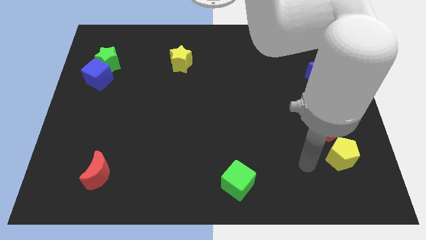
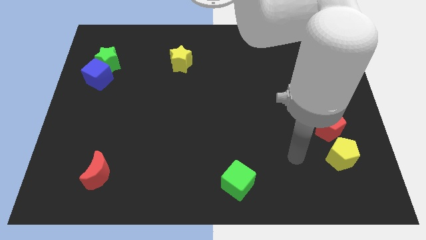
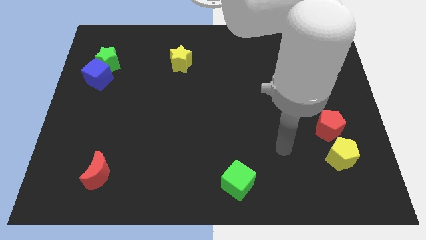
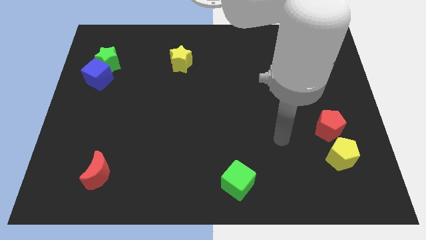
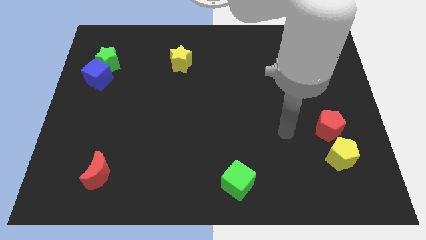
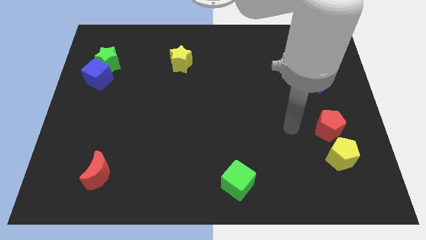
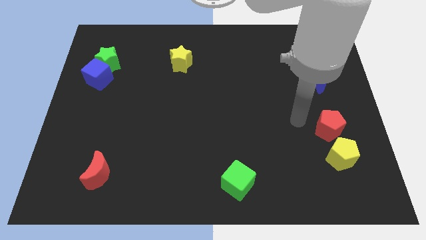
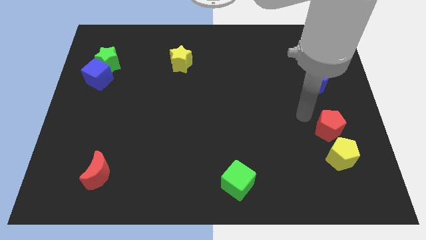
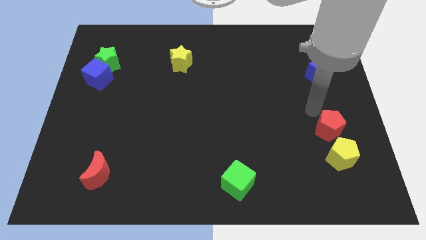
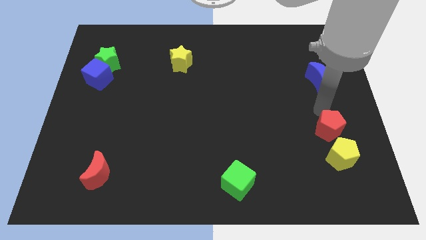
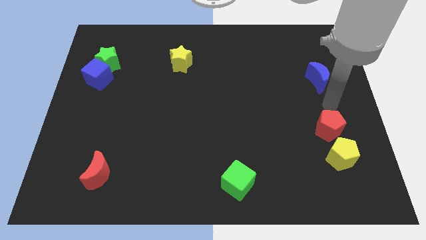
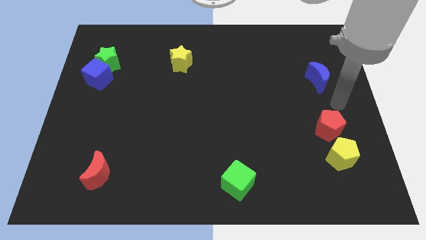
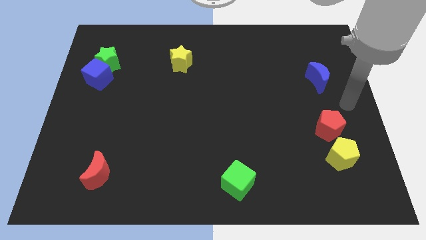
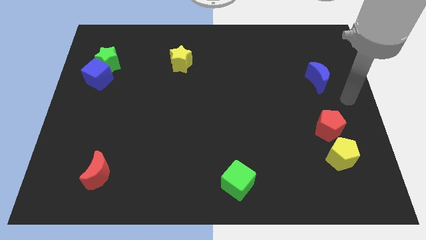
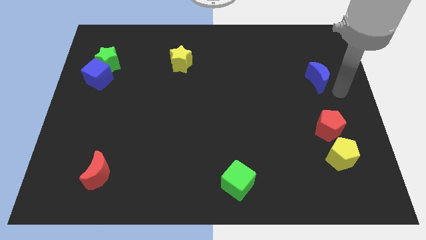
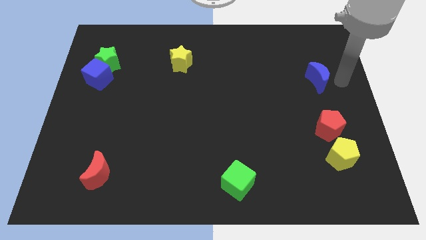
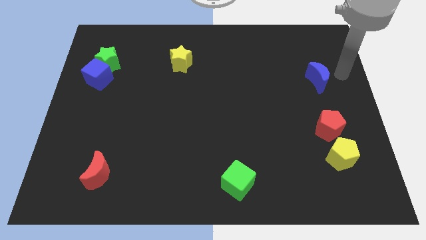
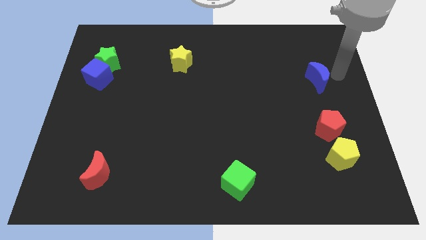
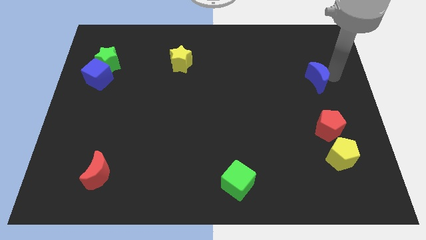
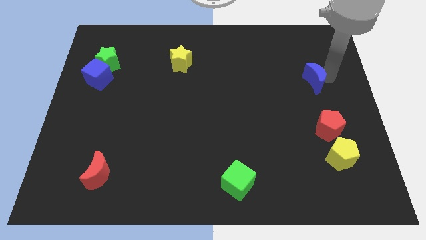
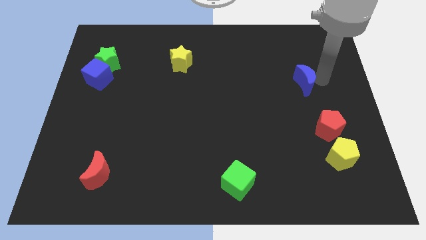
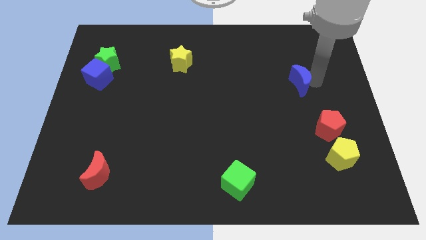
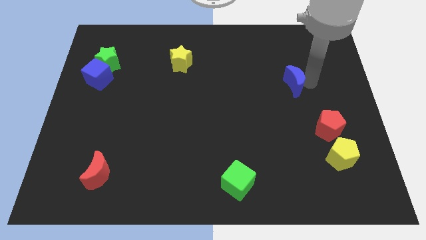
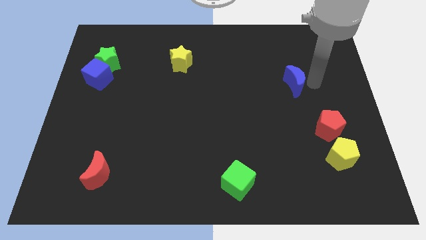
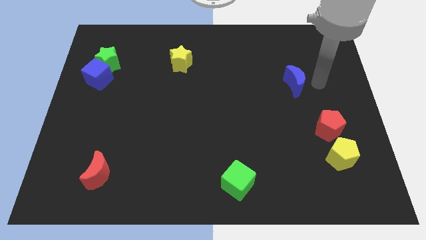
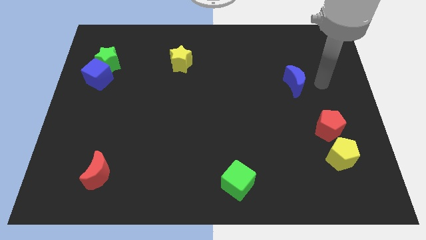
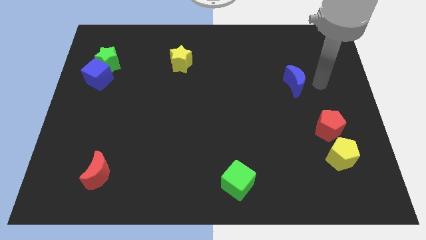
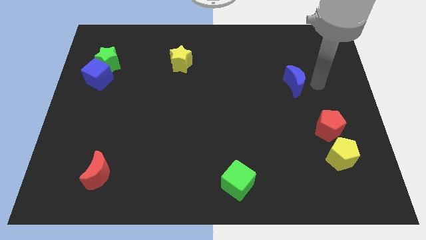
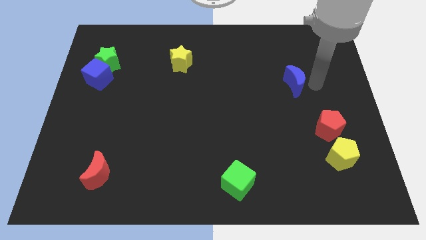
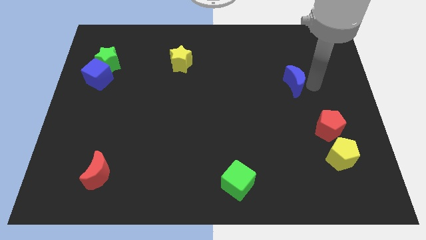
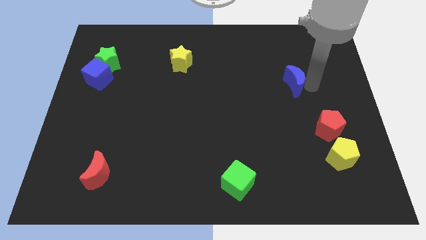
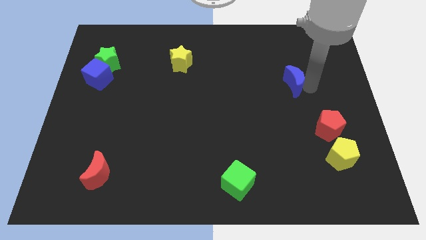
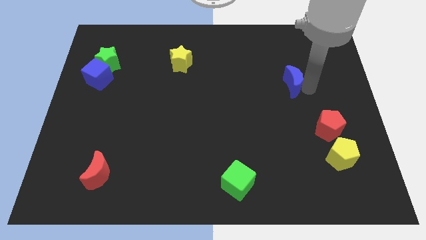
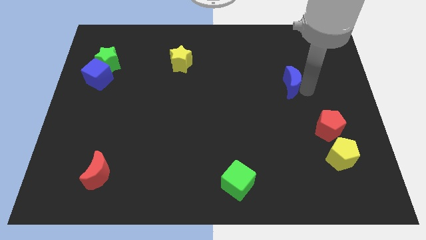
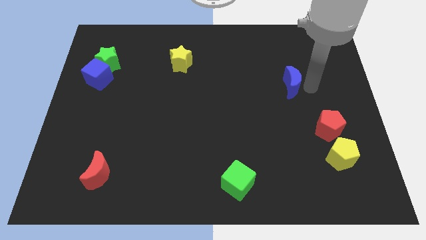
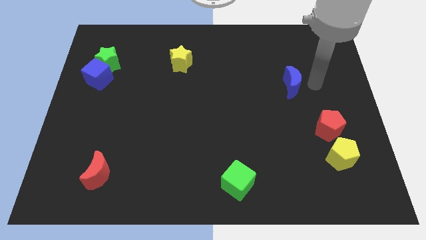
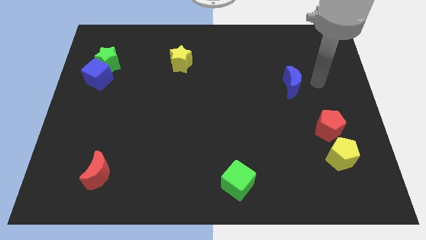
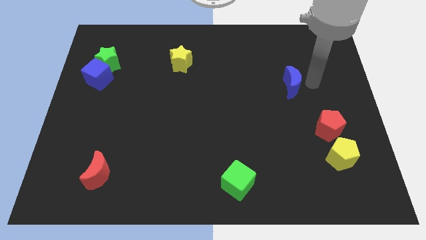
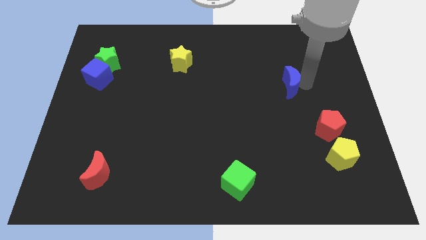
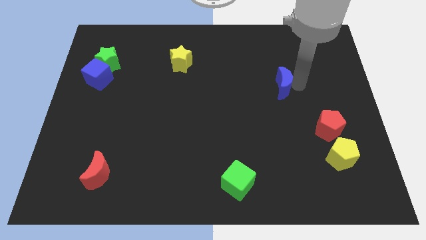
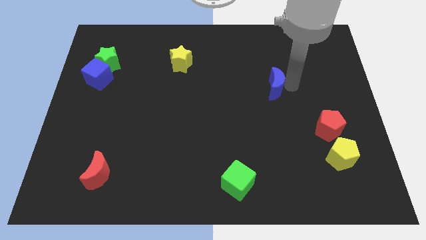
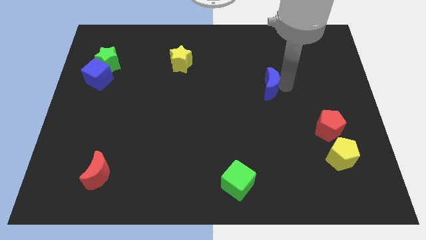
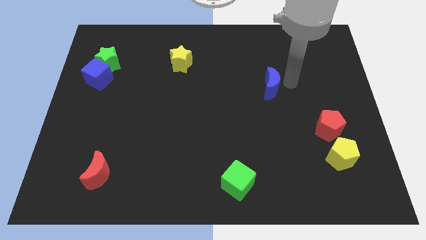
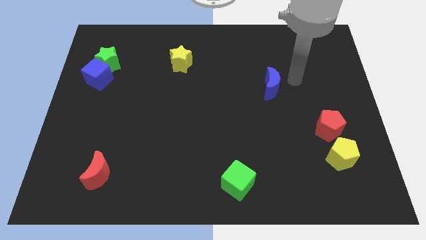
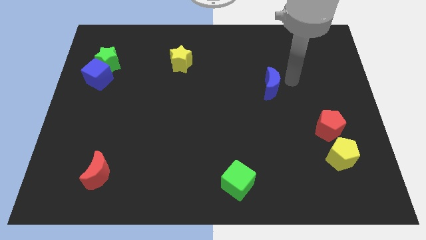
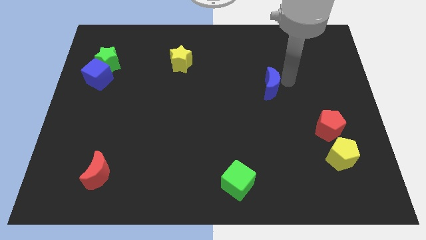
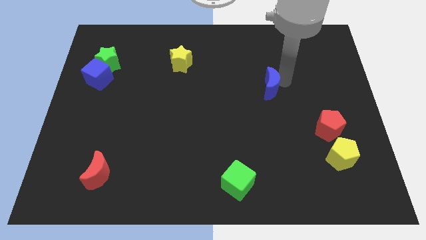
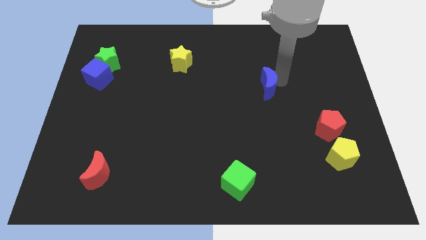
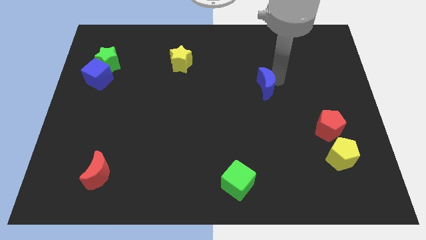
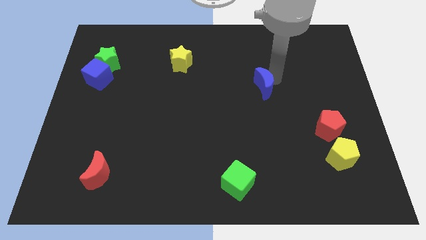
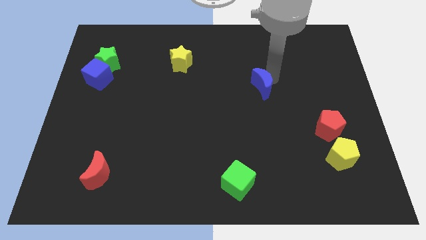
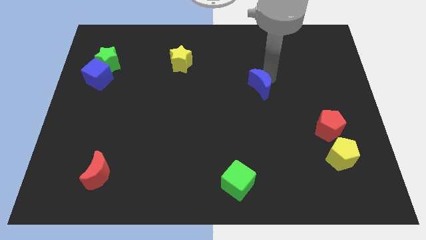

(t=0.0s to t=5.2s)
put the blue moon to the middle of the board

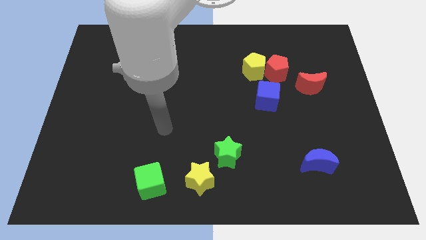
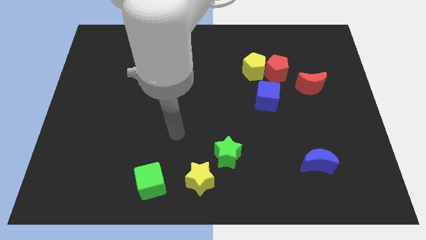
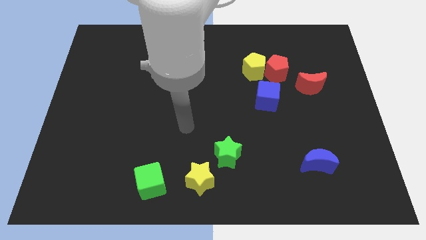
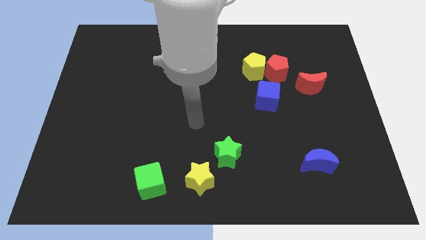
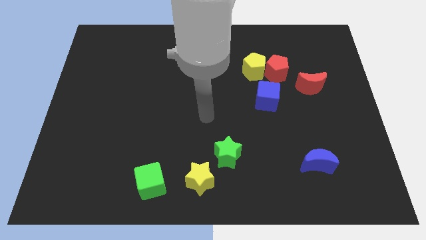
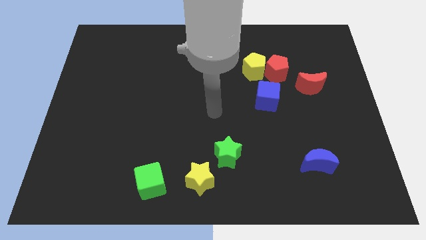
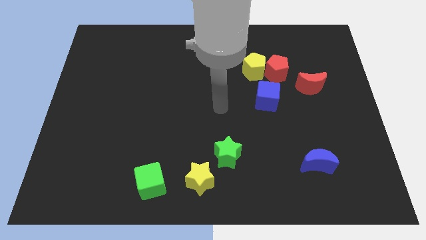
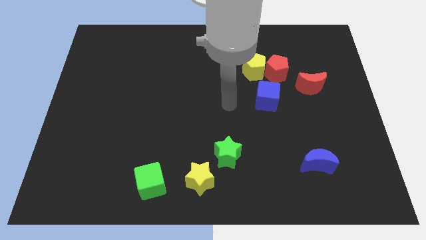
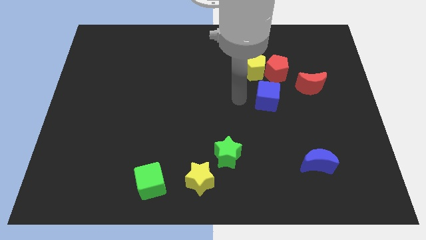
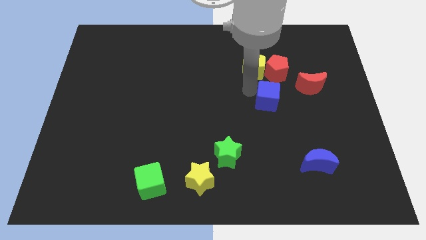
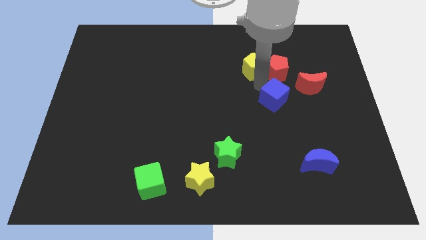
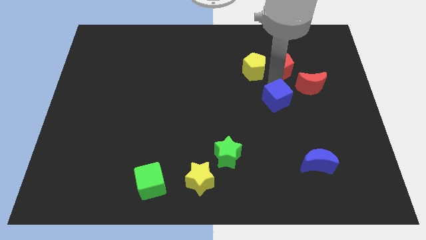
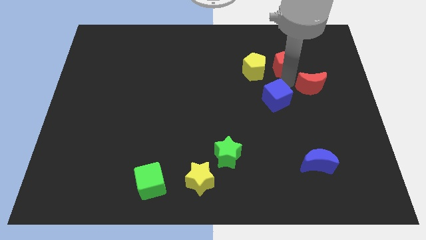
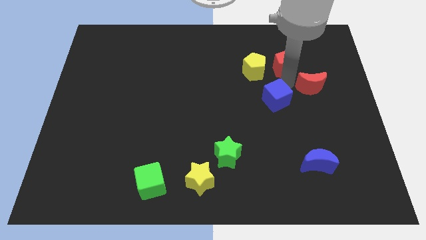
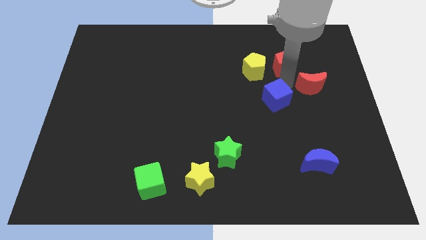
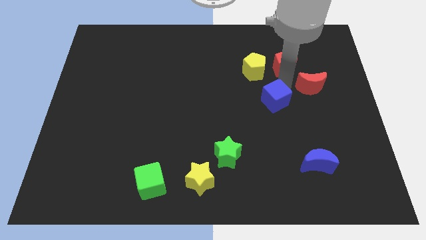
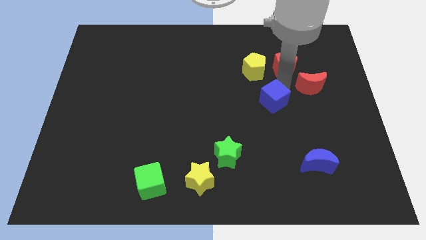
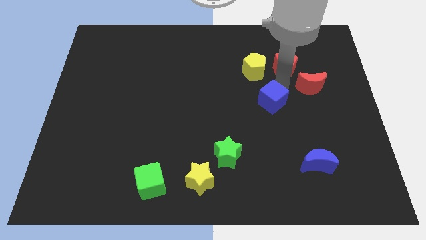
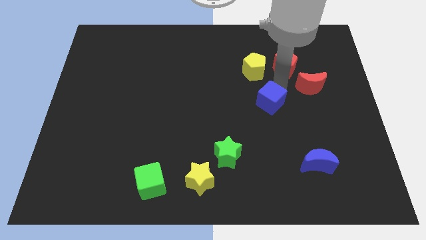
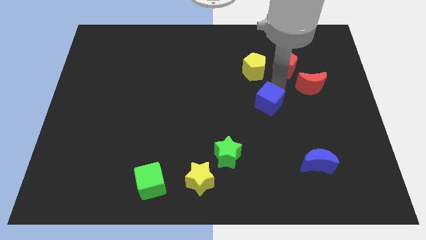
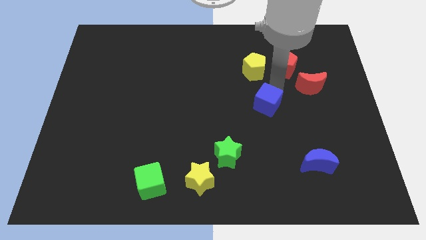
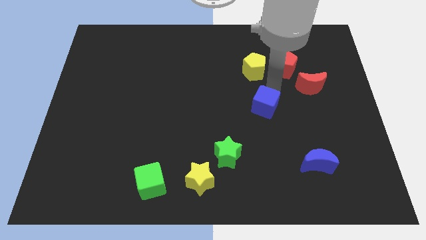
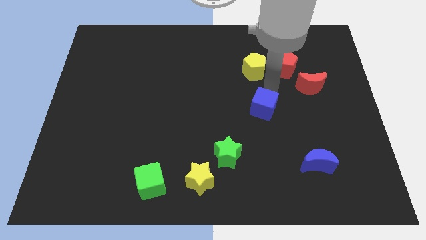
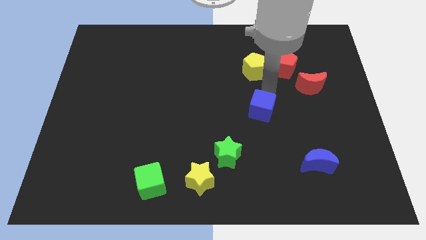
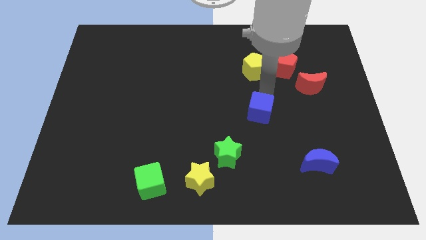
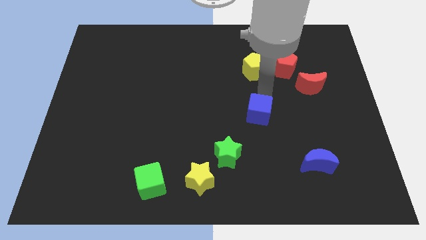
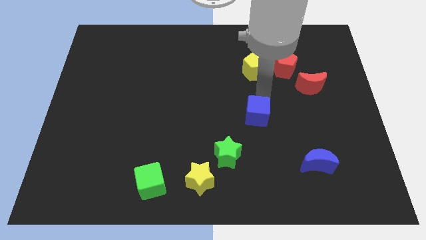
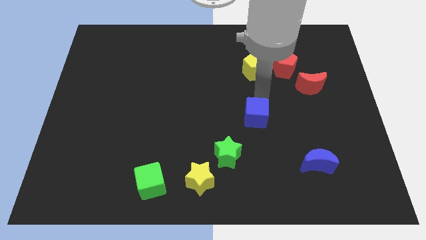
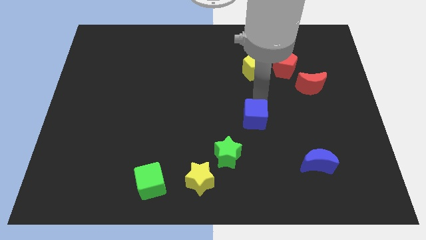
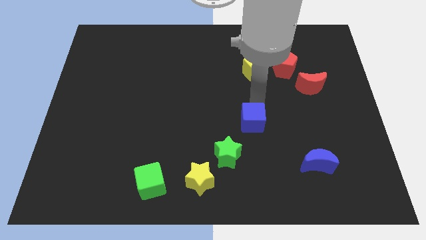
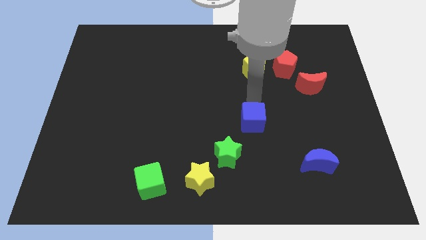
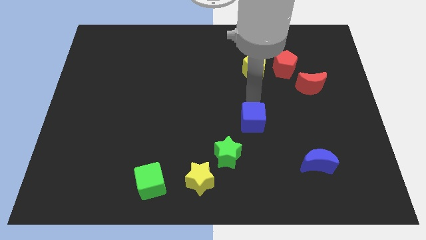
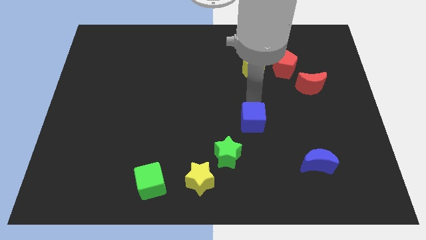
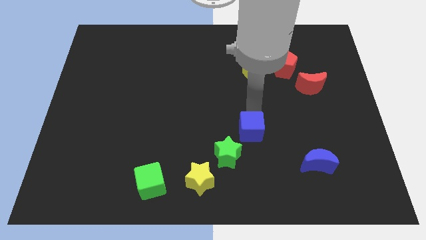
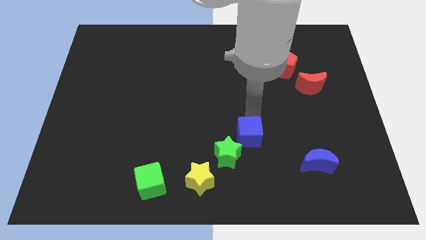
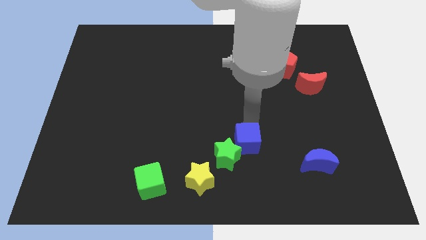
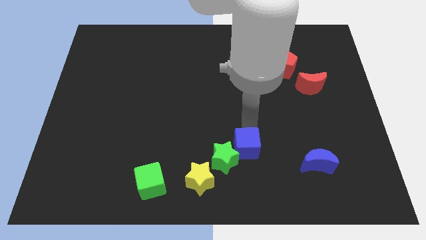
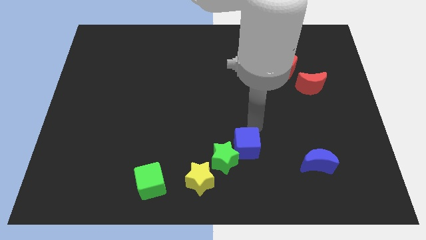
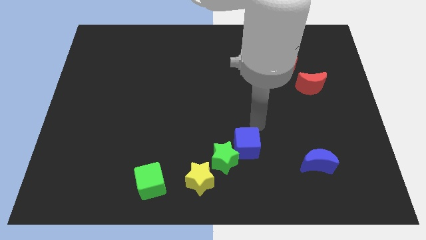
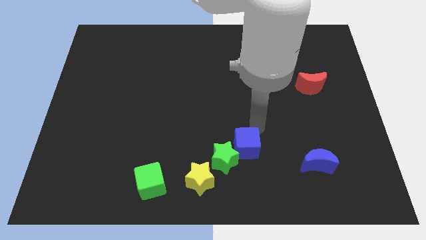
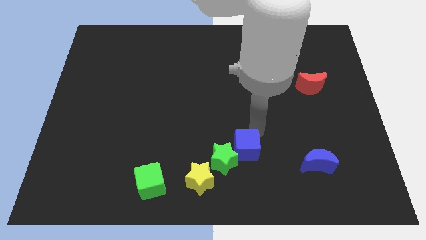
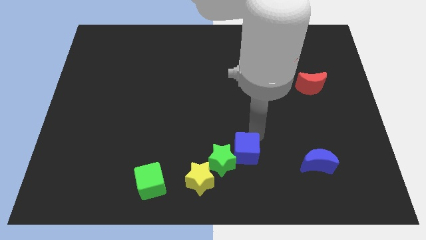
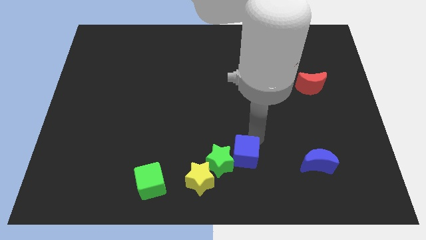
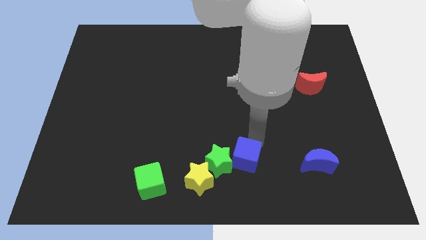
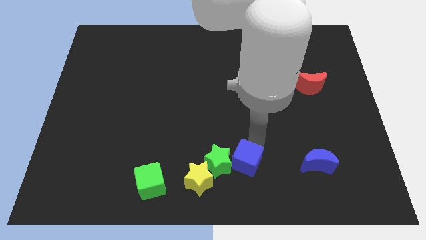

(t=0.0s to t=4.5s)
push the blue cube to the bottom
